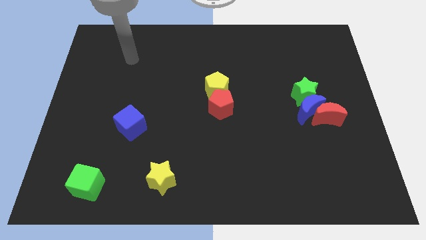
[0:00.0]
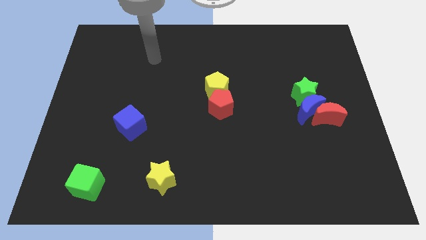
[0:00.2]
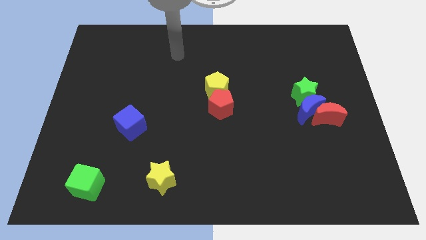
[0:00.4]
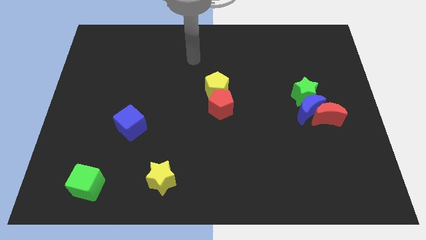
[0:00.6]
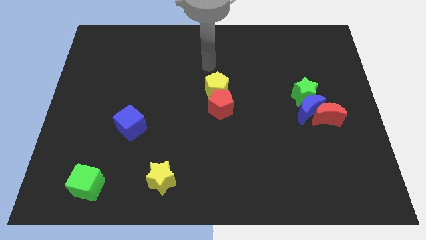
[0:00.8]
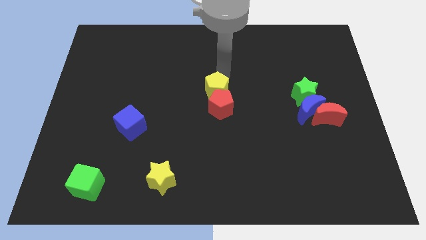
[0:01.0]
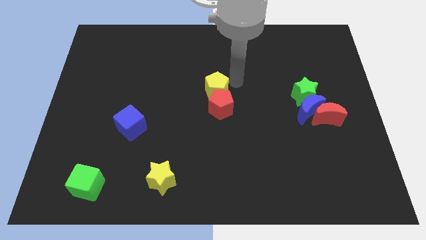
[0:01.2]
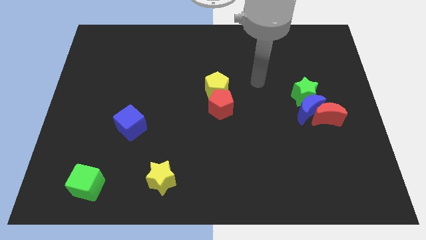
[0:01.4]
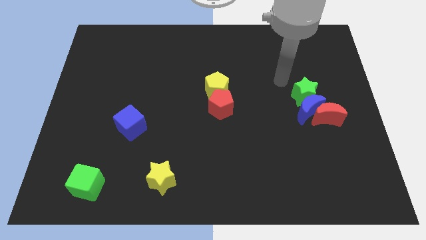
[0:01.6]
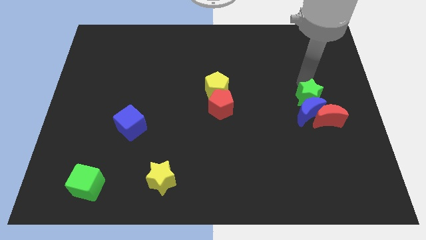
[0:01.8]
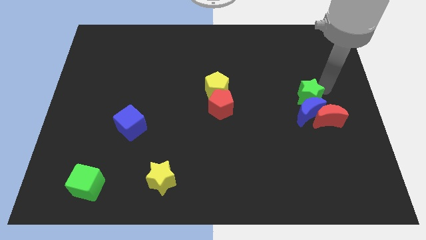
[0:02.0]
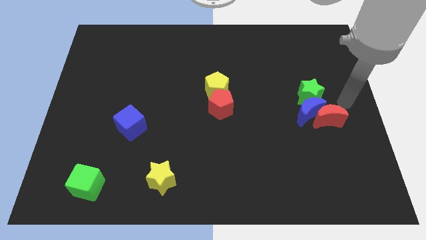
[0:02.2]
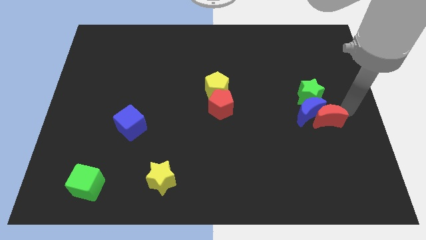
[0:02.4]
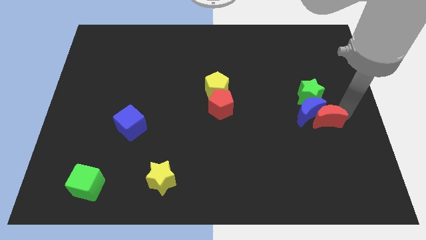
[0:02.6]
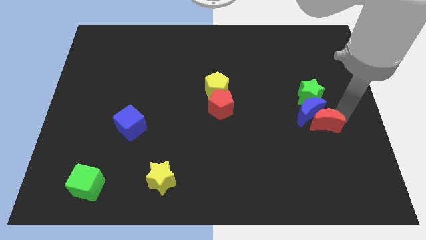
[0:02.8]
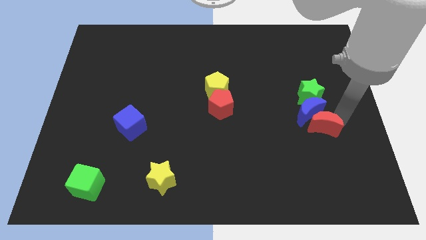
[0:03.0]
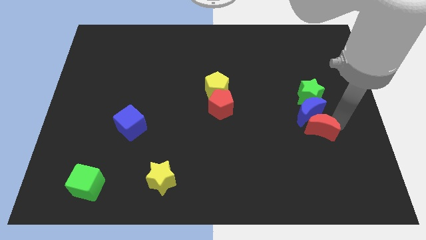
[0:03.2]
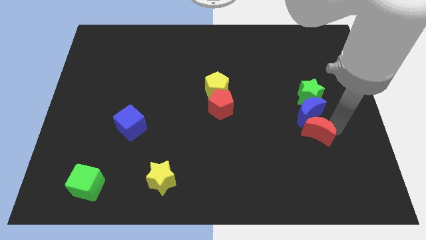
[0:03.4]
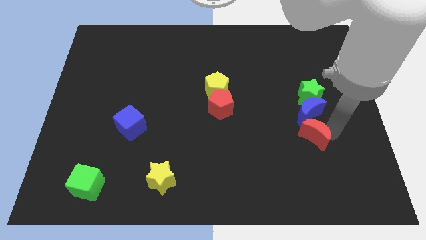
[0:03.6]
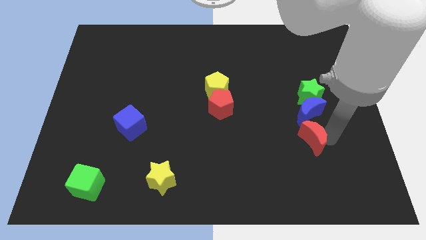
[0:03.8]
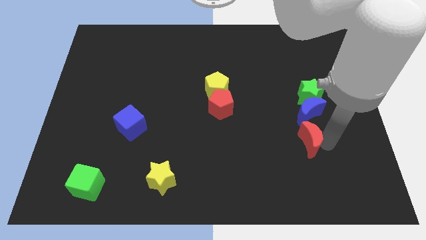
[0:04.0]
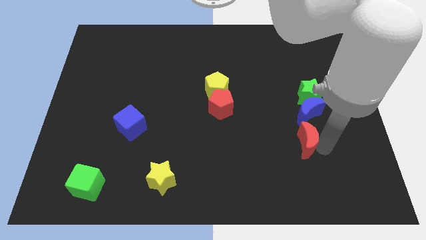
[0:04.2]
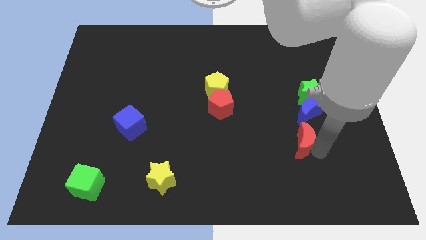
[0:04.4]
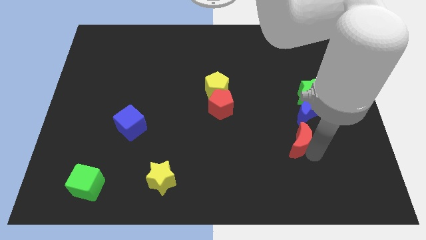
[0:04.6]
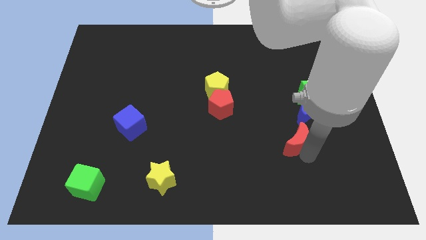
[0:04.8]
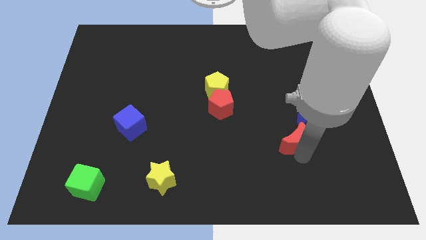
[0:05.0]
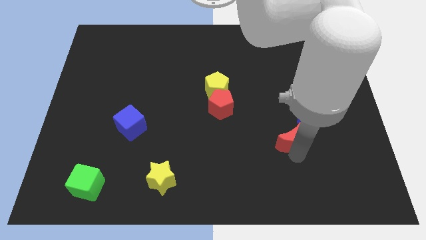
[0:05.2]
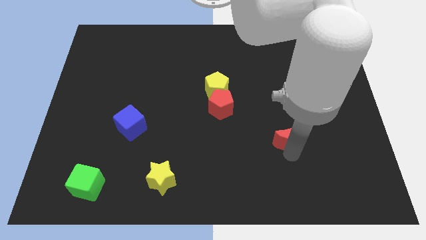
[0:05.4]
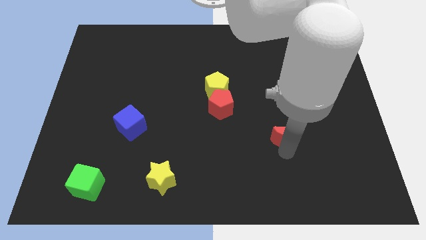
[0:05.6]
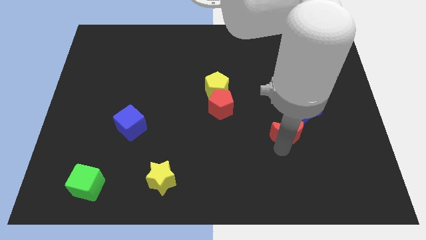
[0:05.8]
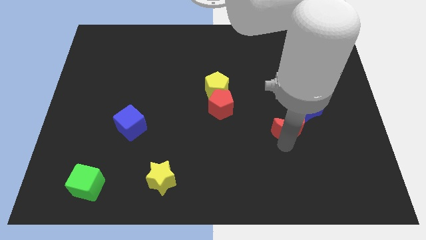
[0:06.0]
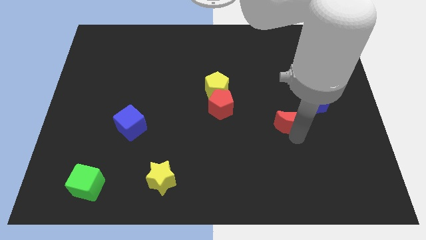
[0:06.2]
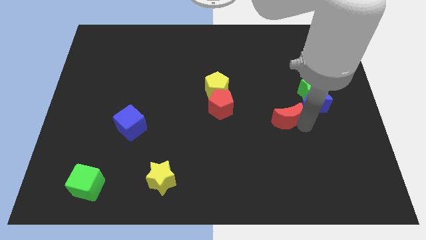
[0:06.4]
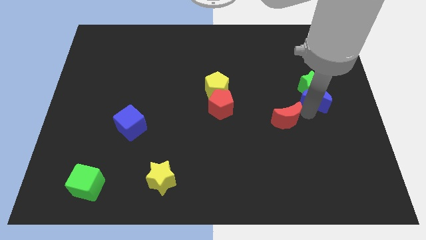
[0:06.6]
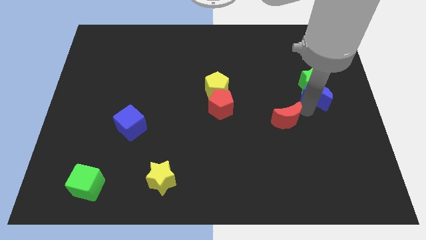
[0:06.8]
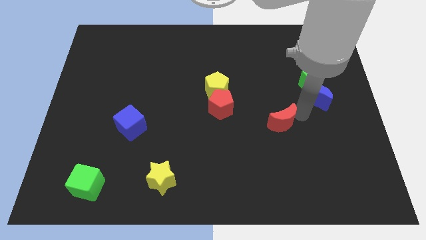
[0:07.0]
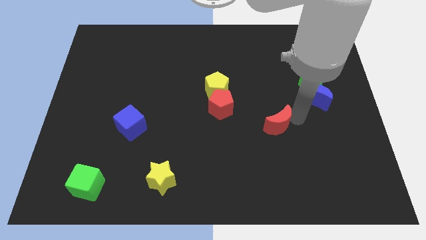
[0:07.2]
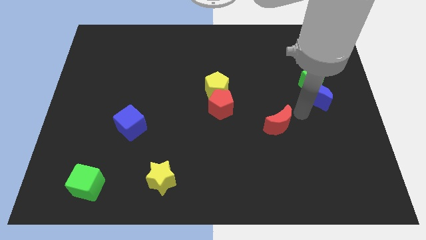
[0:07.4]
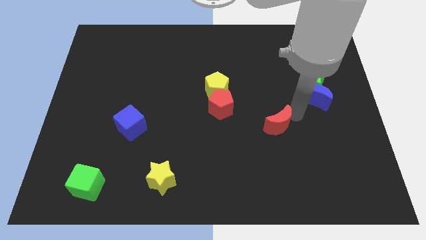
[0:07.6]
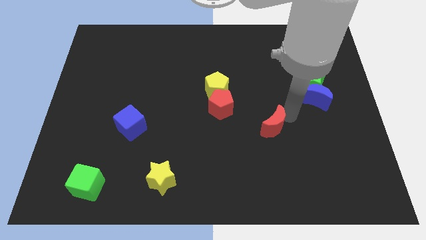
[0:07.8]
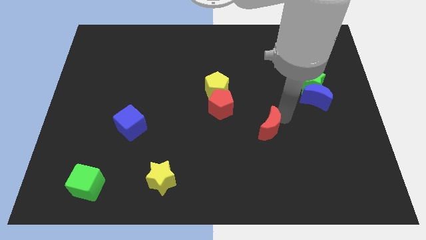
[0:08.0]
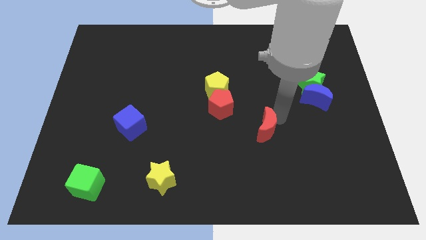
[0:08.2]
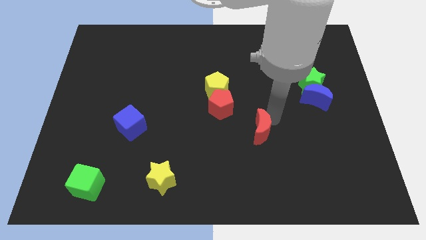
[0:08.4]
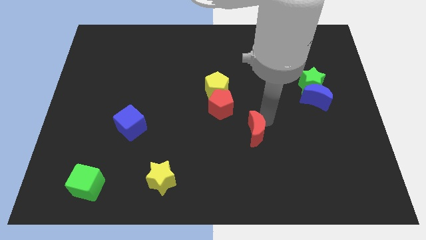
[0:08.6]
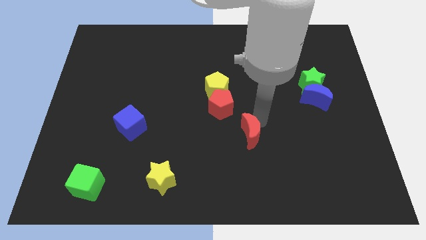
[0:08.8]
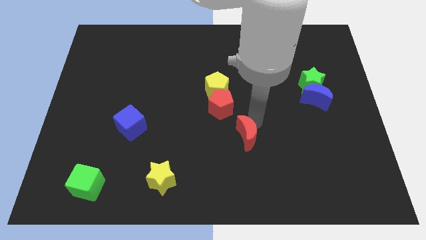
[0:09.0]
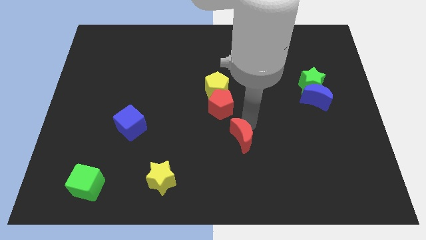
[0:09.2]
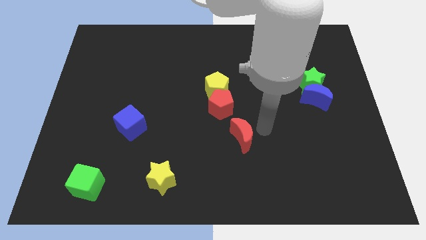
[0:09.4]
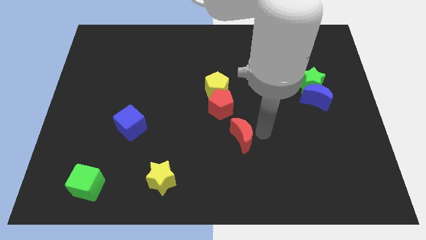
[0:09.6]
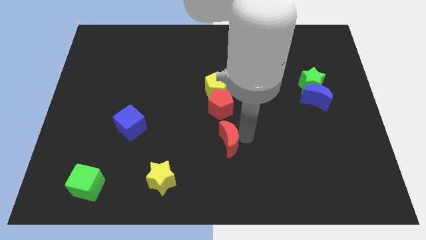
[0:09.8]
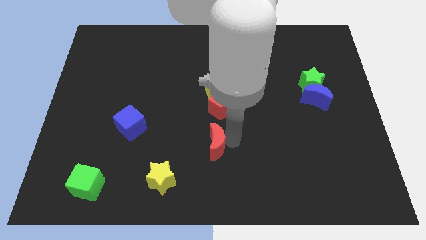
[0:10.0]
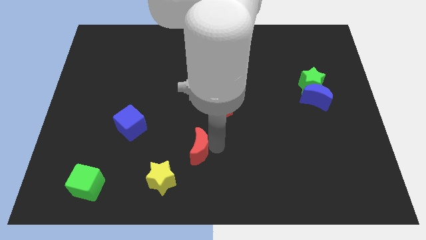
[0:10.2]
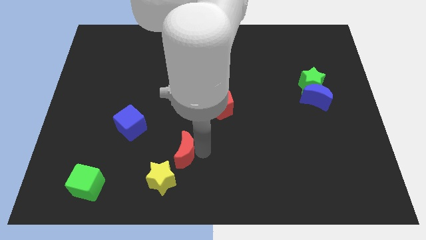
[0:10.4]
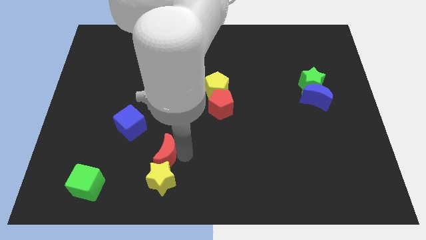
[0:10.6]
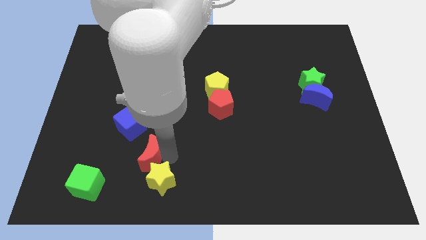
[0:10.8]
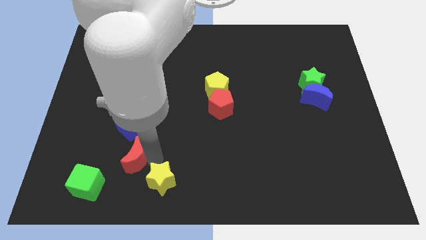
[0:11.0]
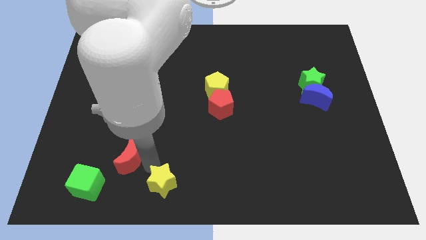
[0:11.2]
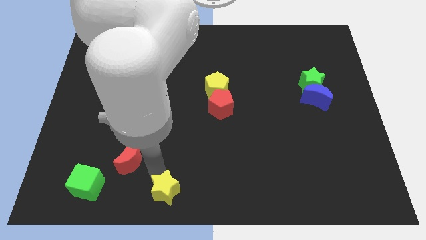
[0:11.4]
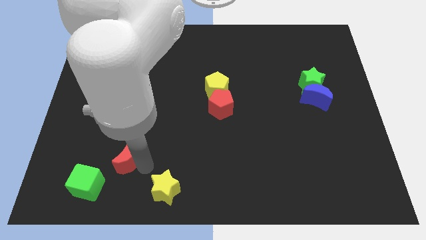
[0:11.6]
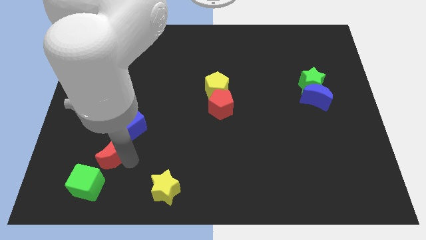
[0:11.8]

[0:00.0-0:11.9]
put the red moon to the bottom left of the blue cube

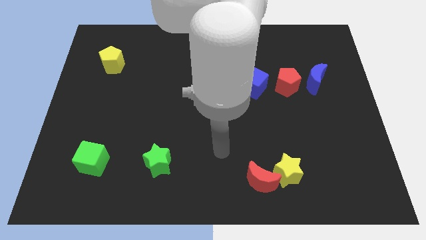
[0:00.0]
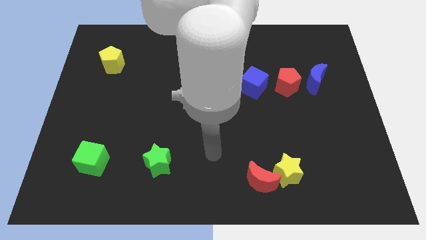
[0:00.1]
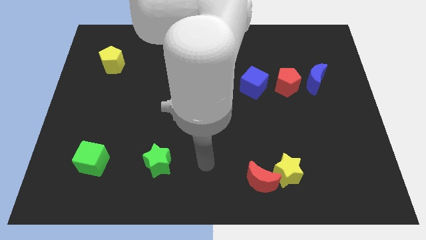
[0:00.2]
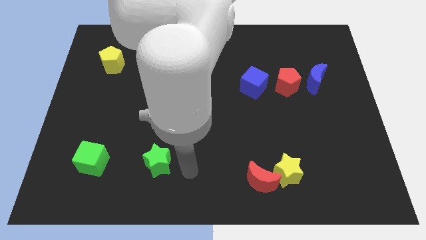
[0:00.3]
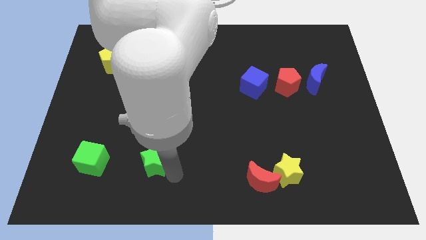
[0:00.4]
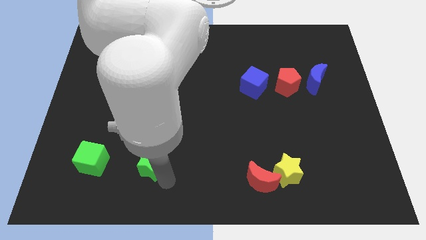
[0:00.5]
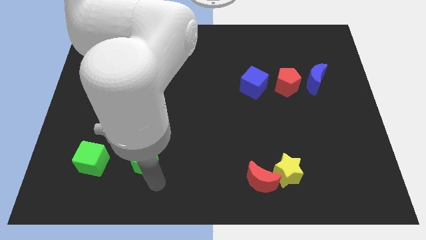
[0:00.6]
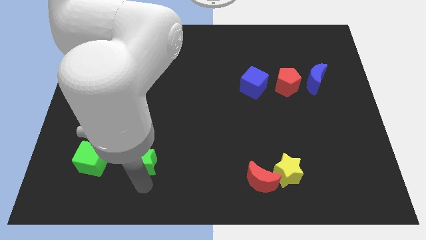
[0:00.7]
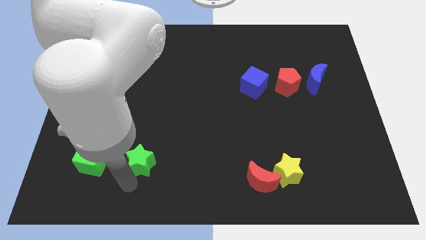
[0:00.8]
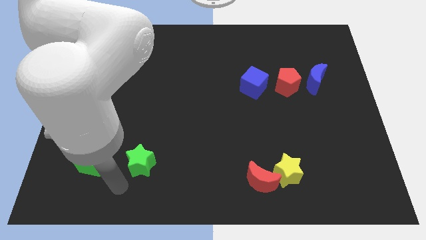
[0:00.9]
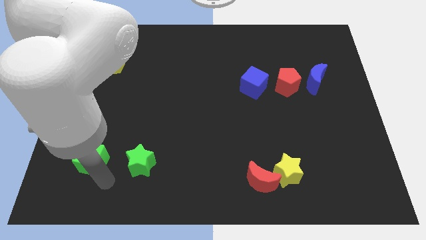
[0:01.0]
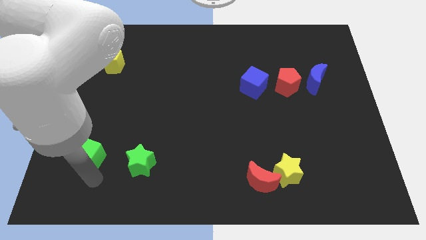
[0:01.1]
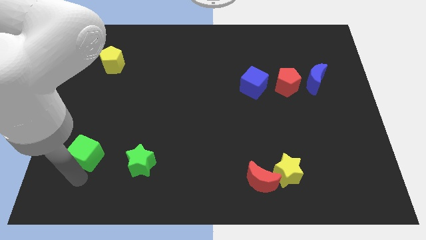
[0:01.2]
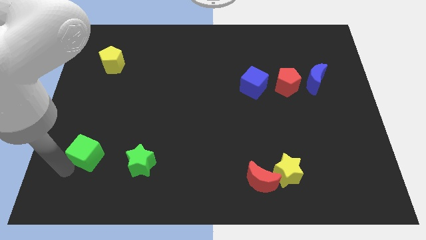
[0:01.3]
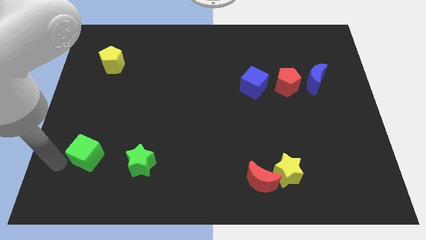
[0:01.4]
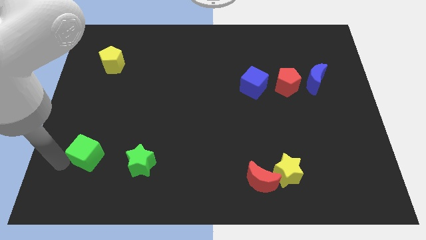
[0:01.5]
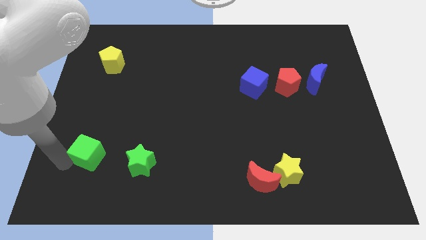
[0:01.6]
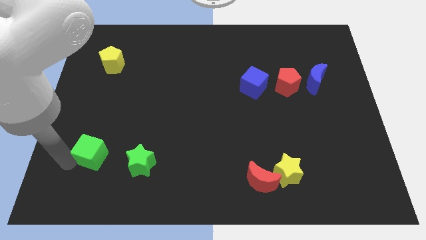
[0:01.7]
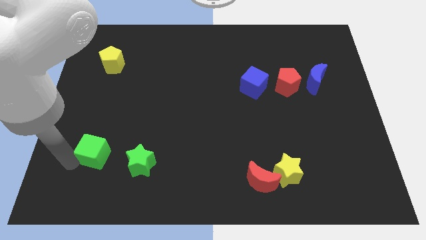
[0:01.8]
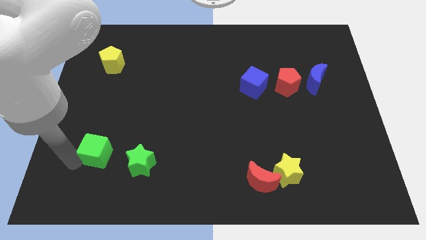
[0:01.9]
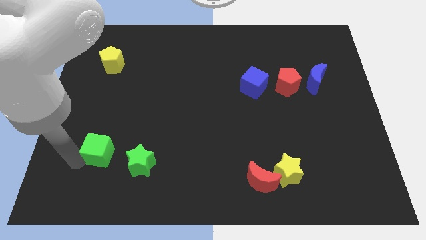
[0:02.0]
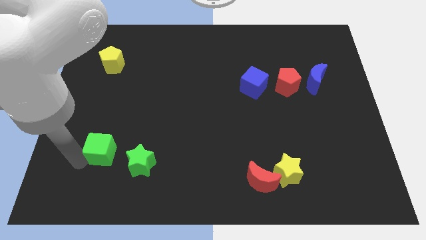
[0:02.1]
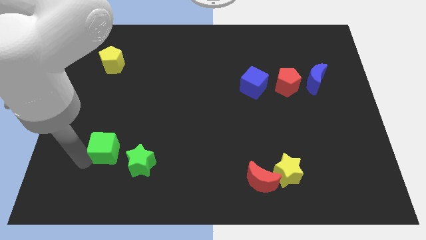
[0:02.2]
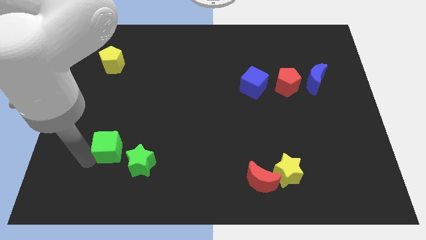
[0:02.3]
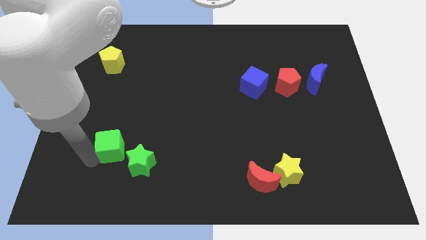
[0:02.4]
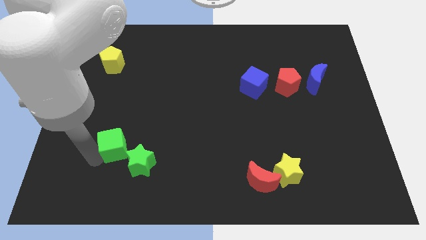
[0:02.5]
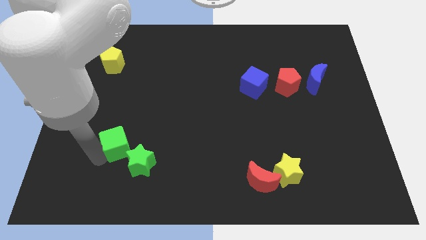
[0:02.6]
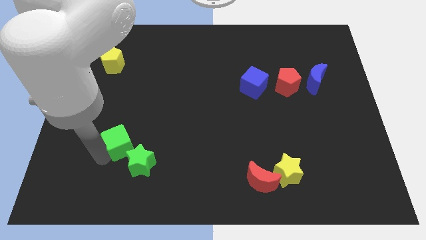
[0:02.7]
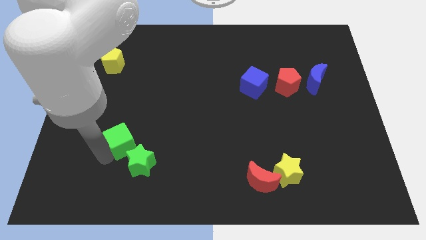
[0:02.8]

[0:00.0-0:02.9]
put the green cube to the top side of the green star
